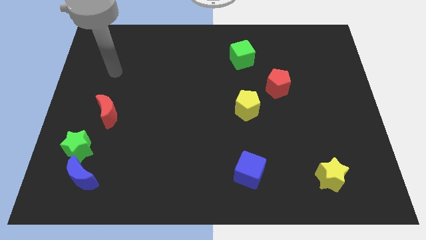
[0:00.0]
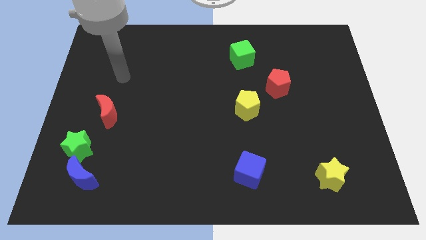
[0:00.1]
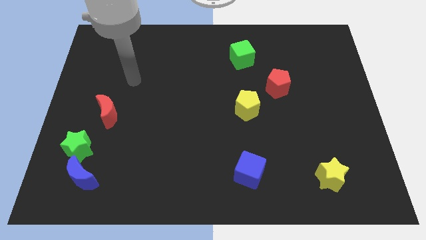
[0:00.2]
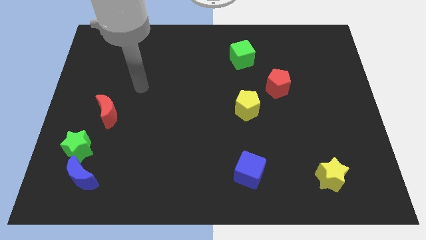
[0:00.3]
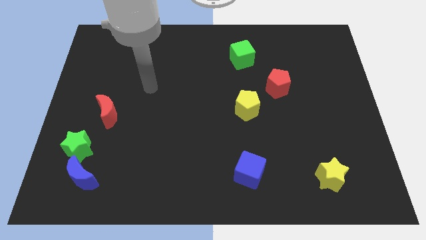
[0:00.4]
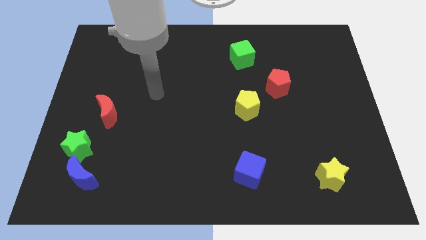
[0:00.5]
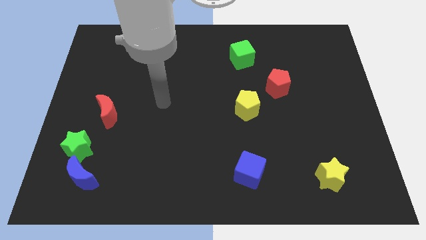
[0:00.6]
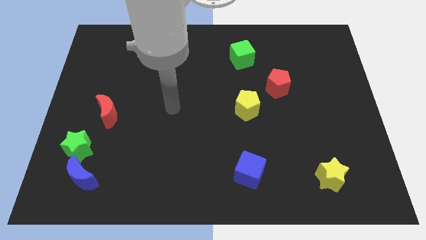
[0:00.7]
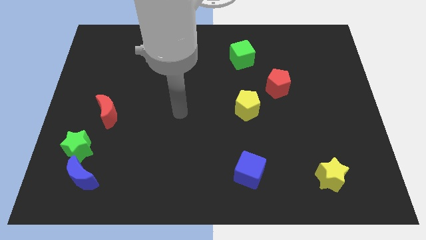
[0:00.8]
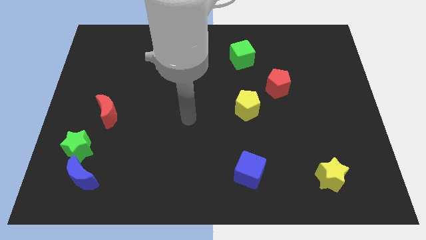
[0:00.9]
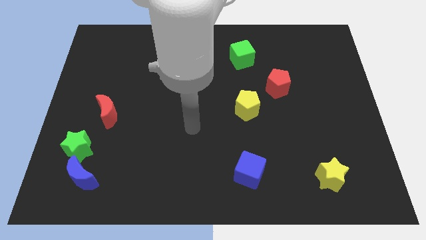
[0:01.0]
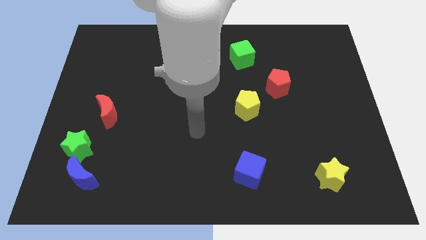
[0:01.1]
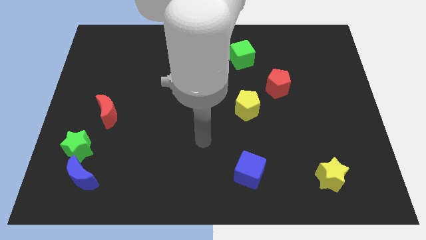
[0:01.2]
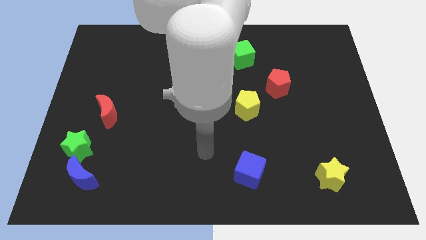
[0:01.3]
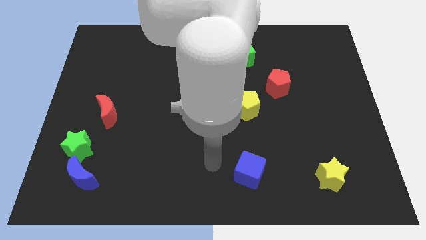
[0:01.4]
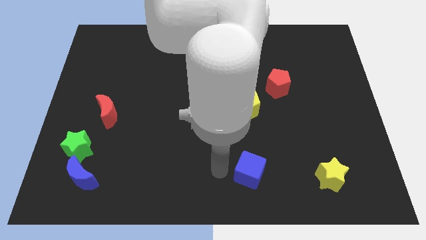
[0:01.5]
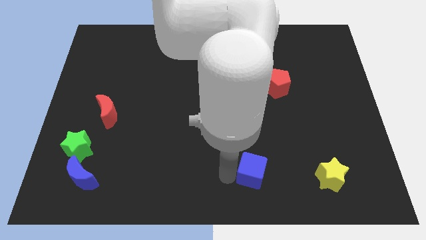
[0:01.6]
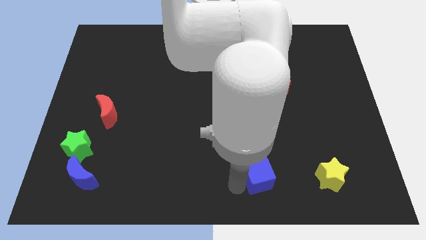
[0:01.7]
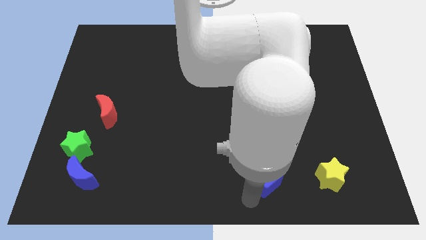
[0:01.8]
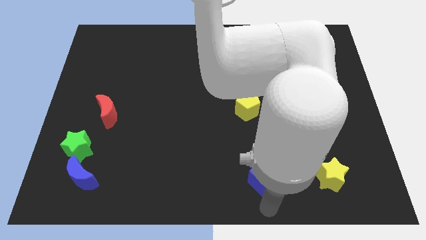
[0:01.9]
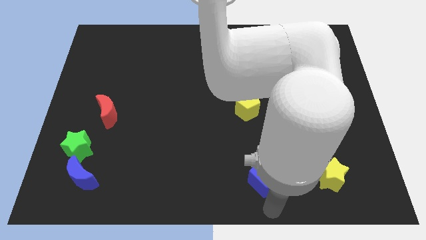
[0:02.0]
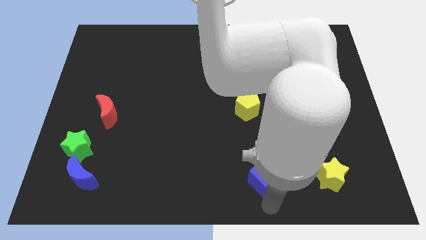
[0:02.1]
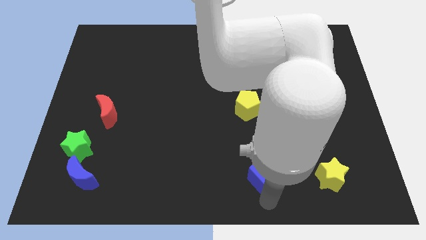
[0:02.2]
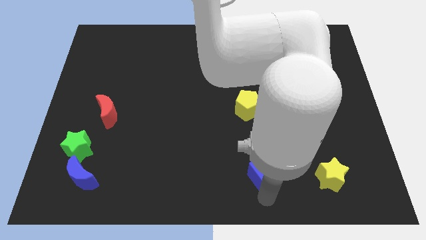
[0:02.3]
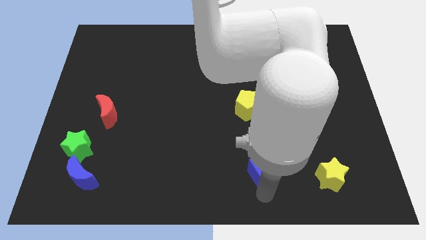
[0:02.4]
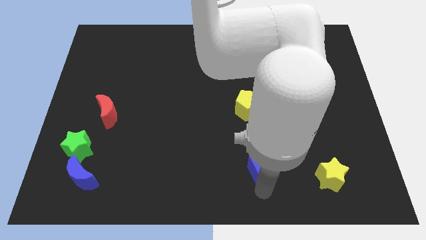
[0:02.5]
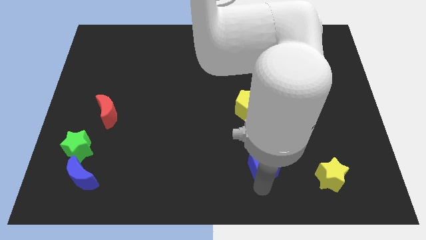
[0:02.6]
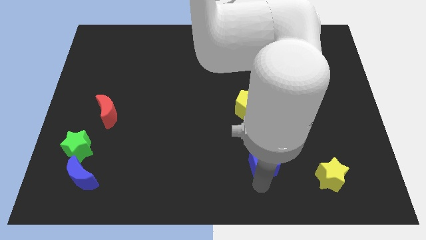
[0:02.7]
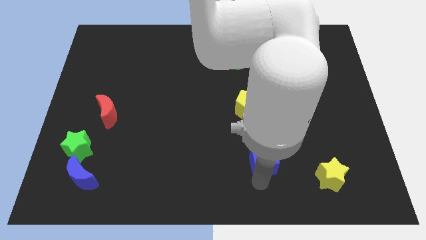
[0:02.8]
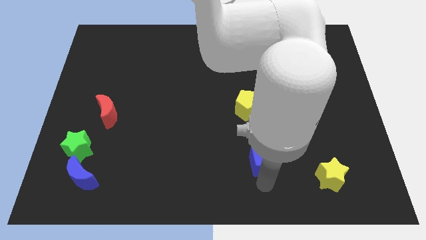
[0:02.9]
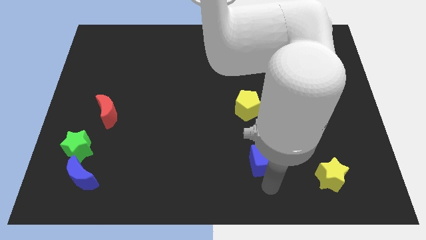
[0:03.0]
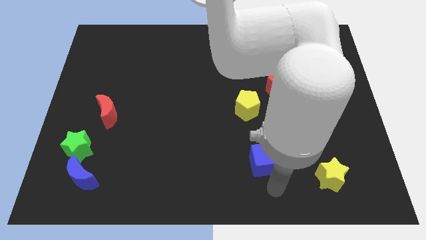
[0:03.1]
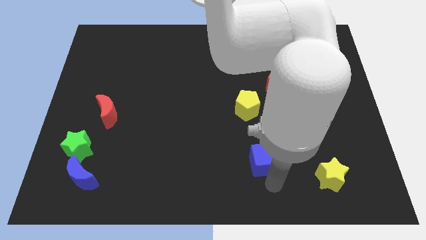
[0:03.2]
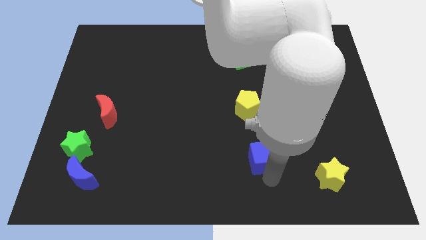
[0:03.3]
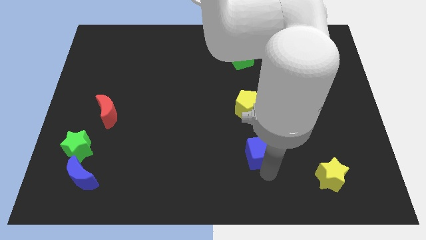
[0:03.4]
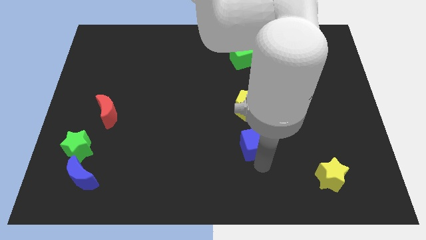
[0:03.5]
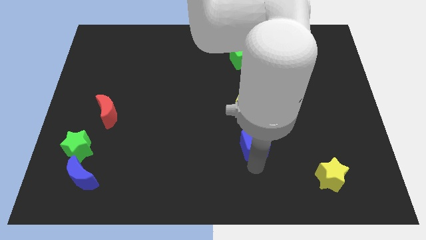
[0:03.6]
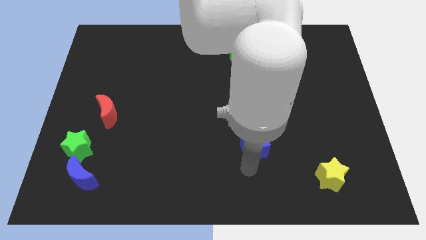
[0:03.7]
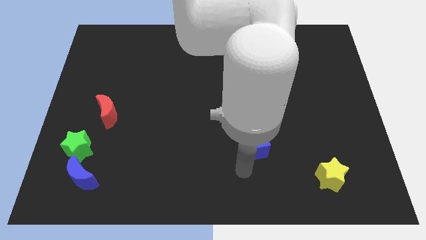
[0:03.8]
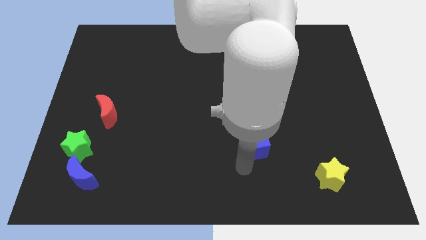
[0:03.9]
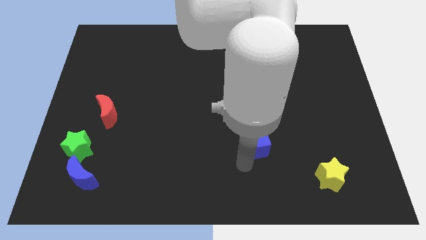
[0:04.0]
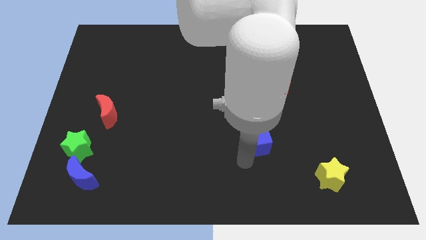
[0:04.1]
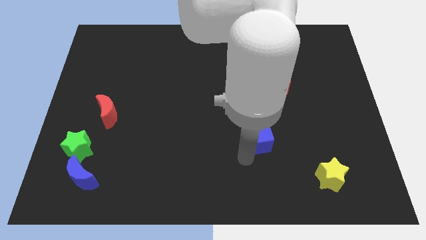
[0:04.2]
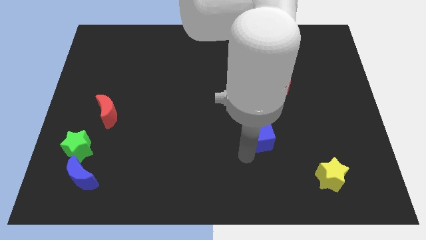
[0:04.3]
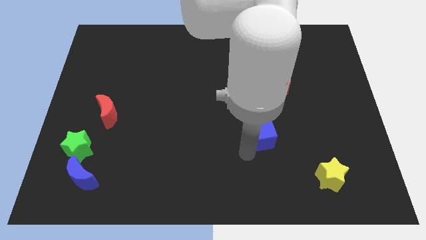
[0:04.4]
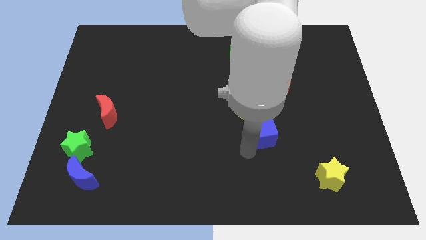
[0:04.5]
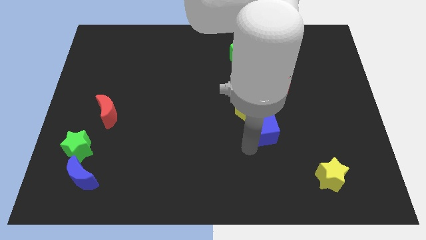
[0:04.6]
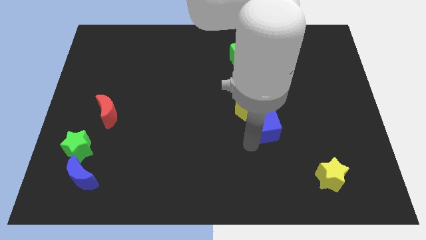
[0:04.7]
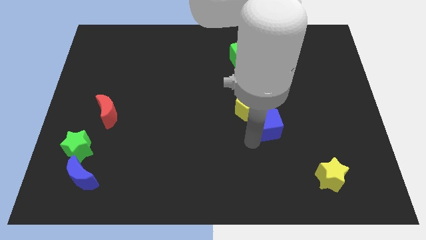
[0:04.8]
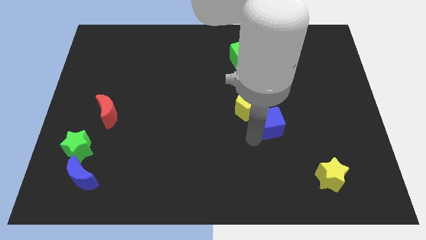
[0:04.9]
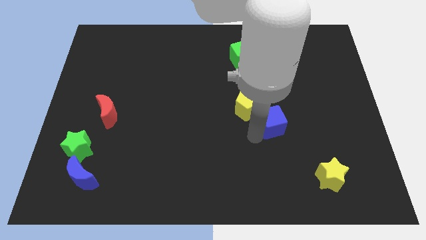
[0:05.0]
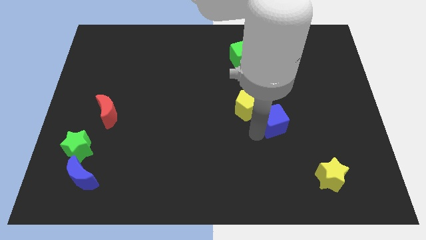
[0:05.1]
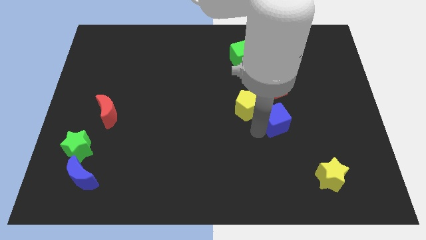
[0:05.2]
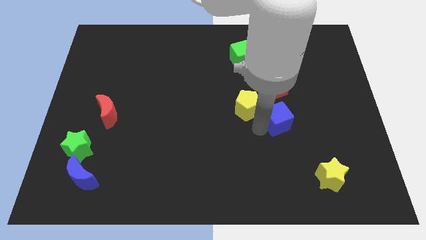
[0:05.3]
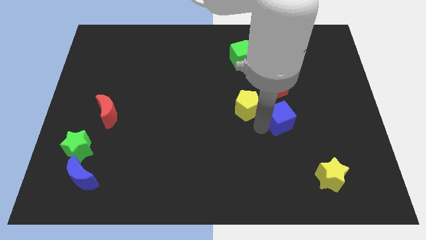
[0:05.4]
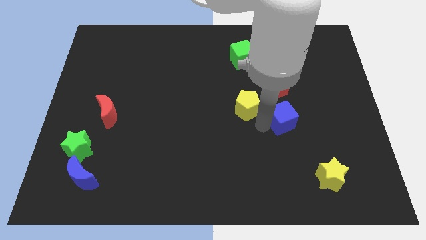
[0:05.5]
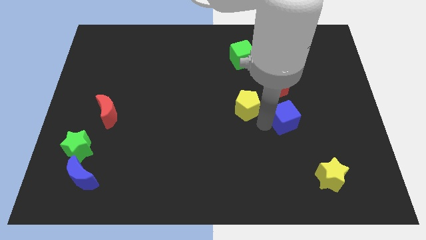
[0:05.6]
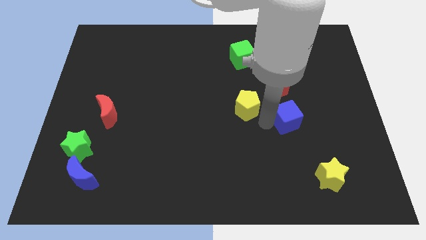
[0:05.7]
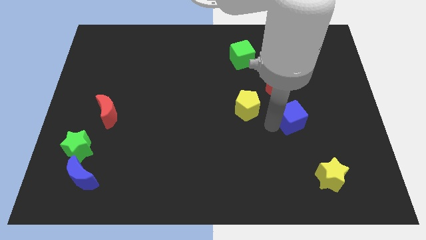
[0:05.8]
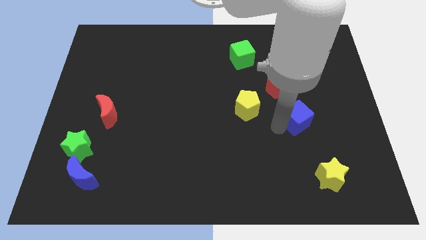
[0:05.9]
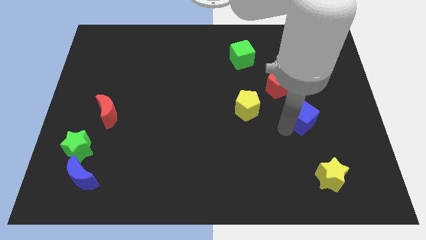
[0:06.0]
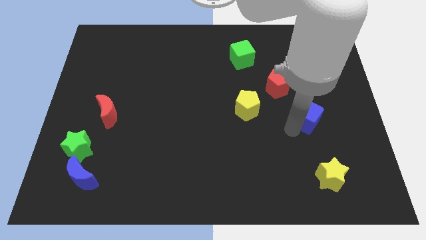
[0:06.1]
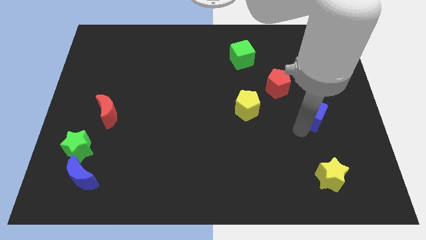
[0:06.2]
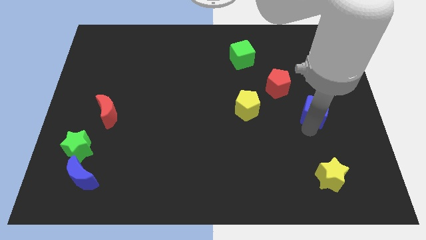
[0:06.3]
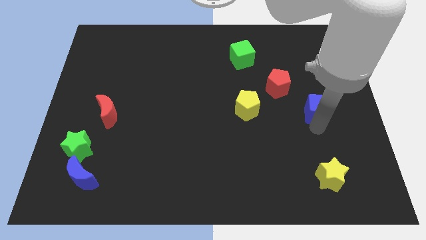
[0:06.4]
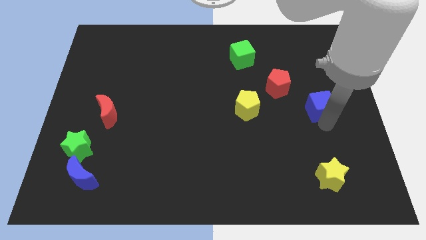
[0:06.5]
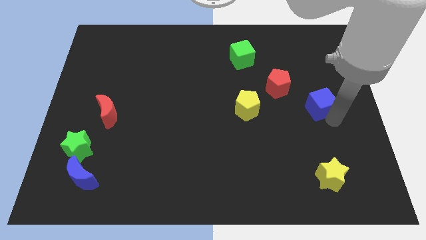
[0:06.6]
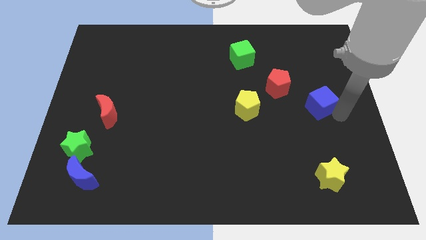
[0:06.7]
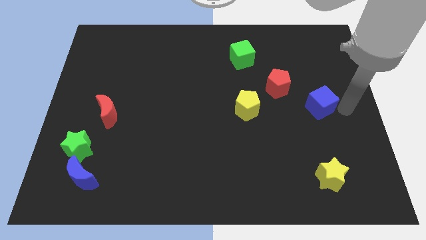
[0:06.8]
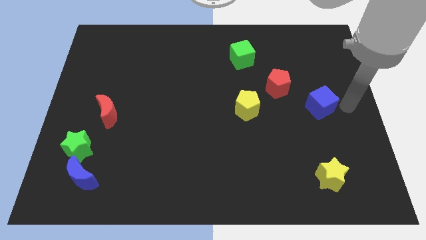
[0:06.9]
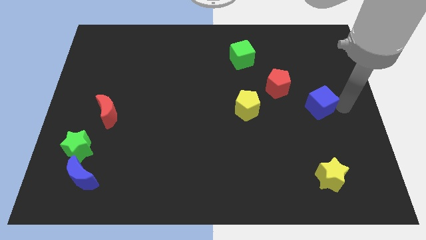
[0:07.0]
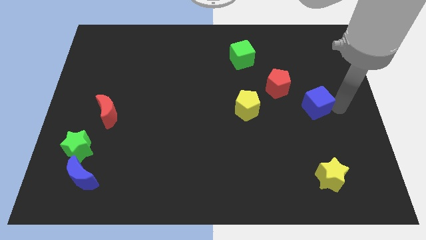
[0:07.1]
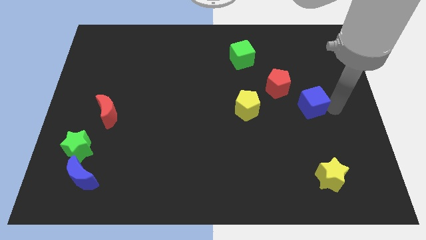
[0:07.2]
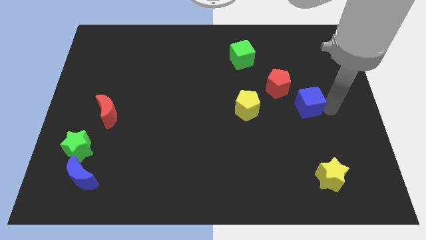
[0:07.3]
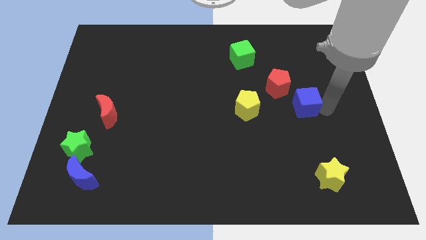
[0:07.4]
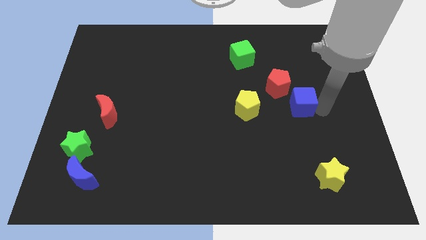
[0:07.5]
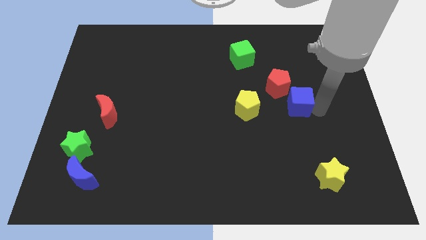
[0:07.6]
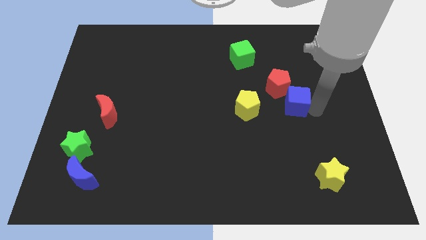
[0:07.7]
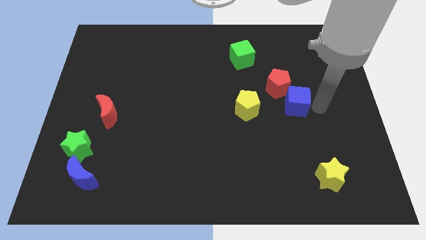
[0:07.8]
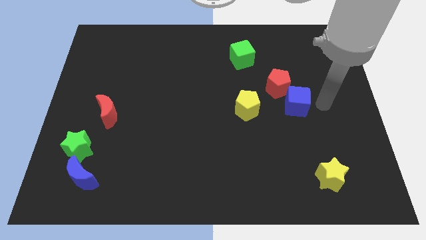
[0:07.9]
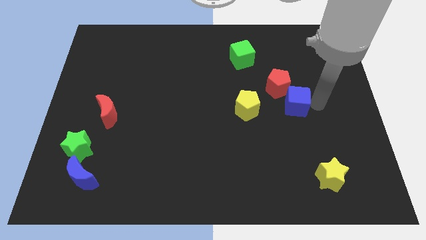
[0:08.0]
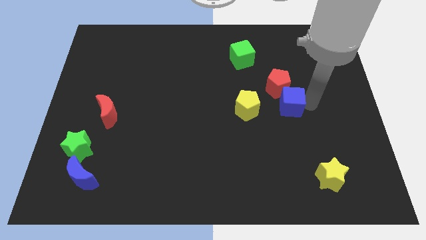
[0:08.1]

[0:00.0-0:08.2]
move the blue cube next to the red pentagon
